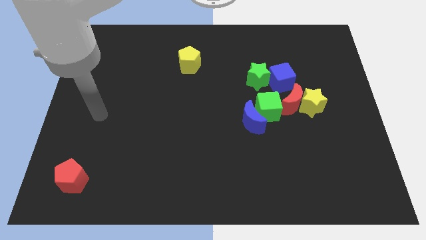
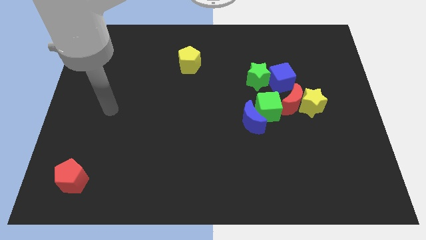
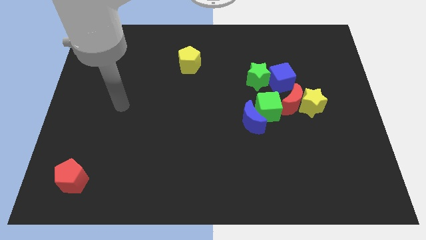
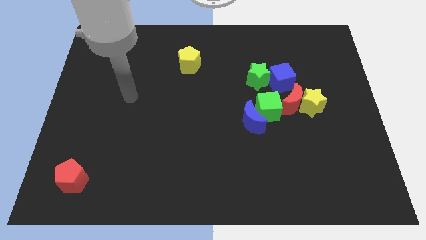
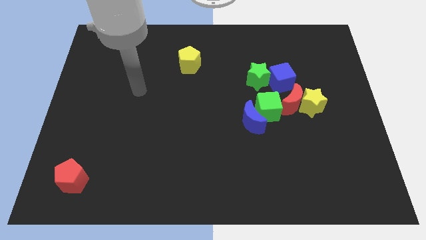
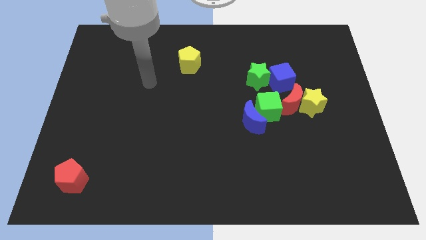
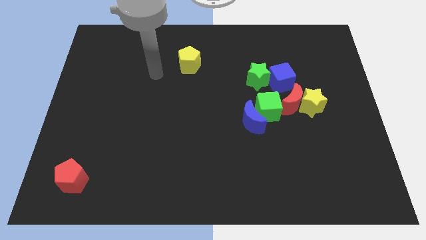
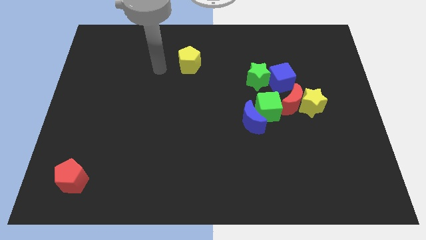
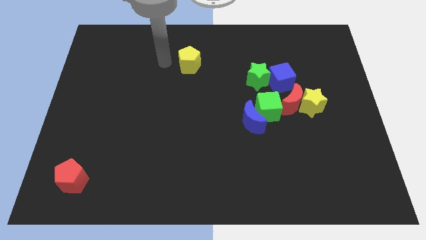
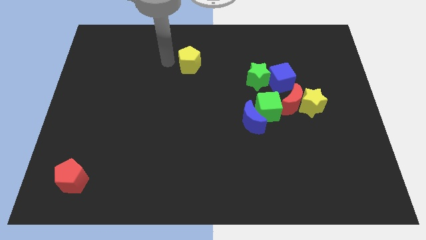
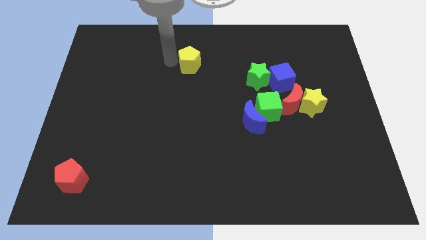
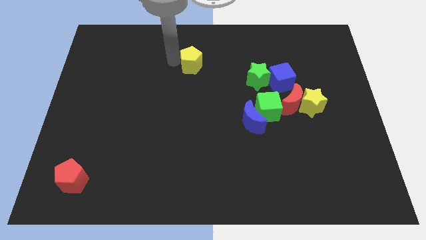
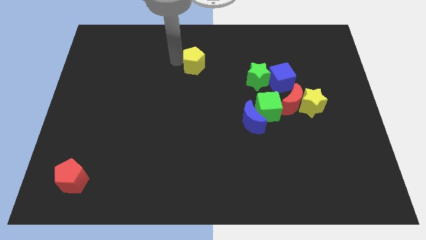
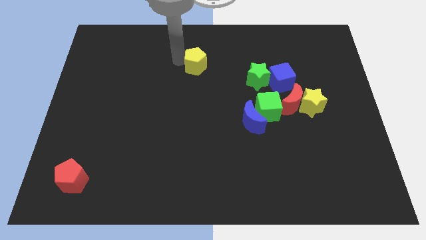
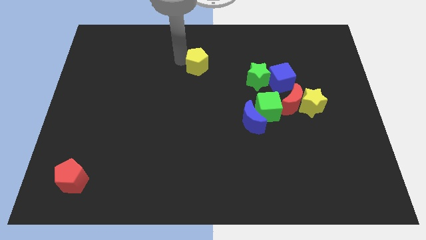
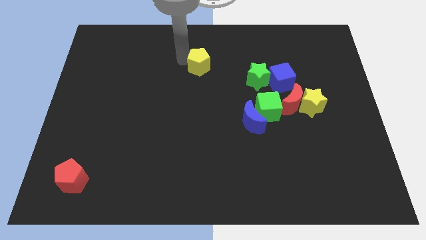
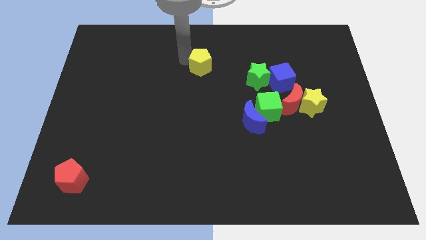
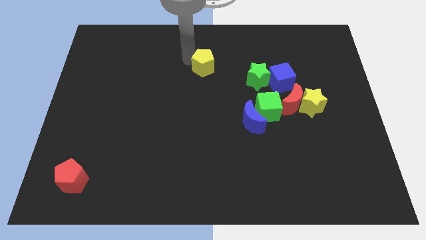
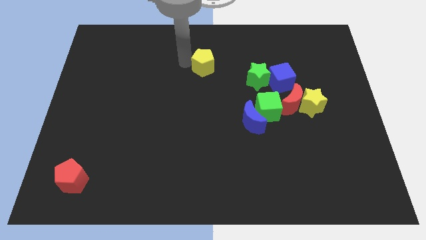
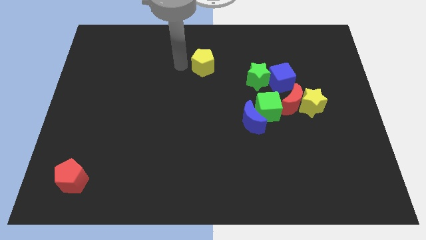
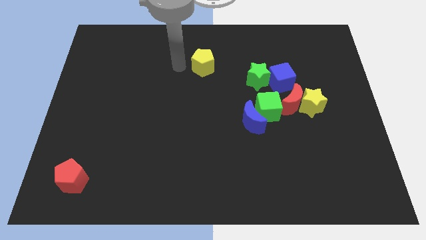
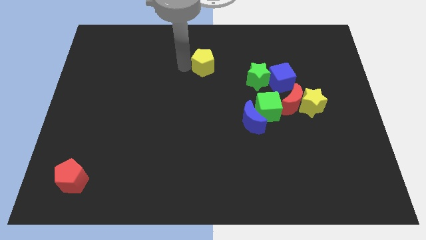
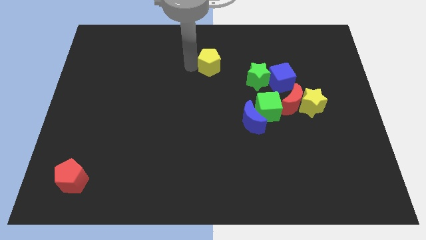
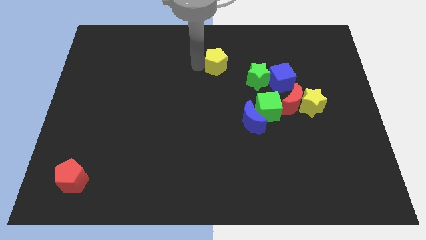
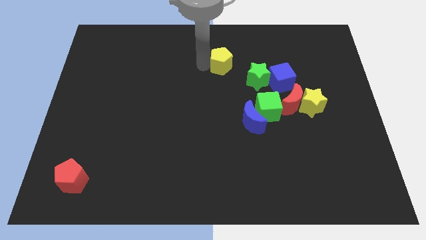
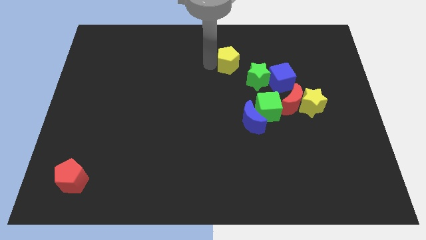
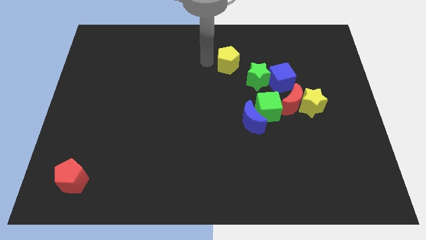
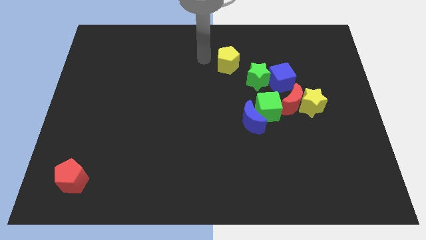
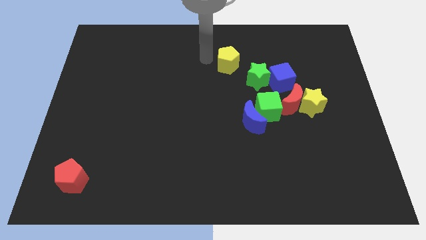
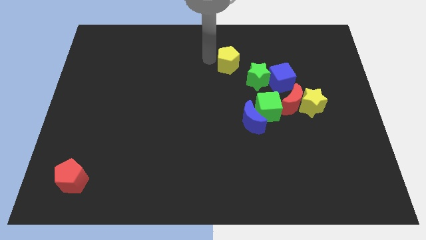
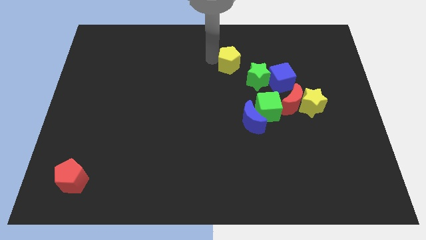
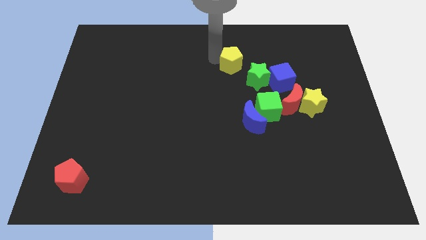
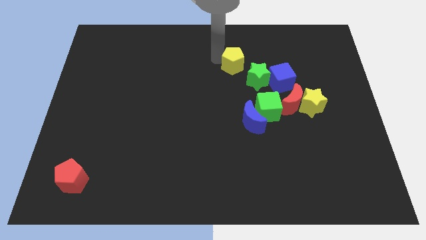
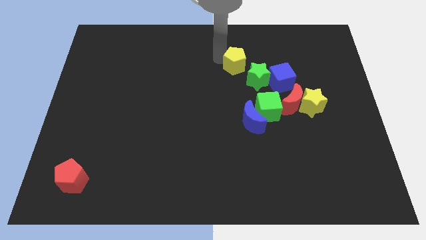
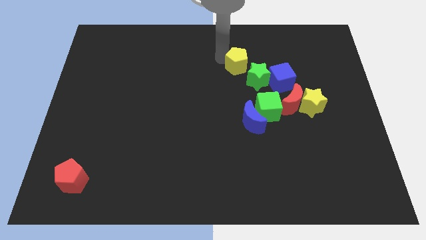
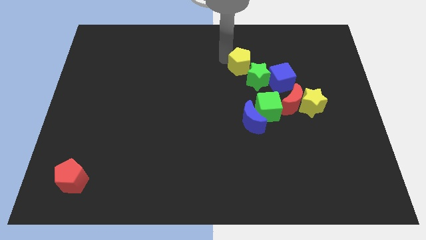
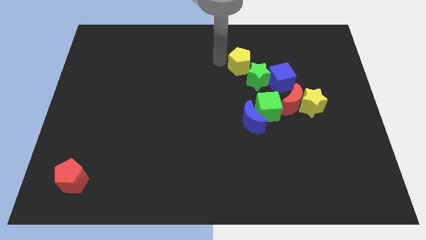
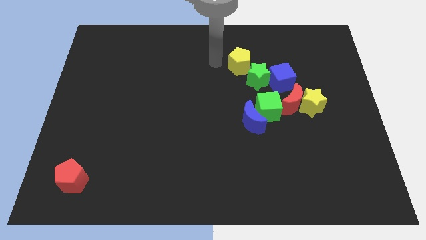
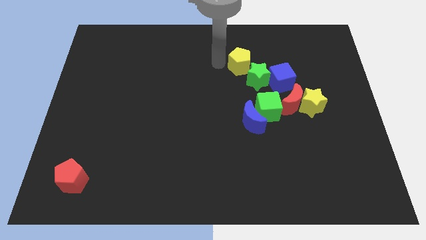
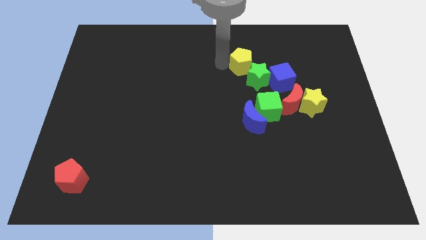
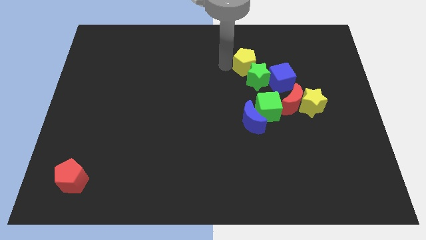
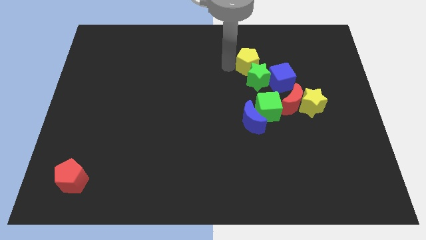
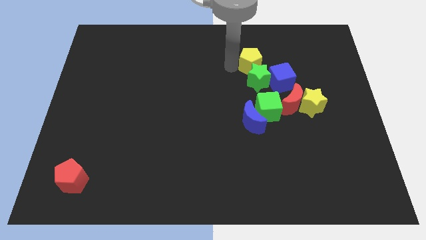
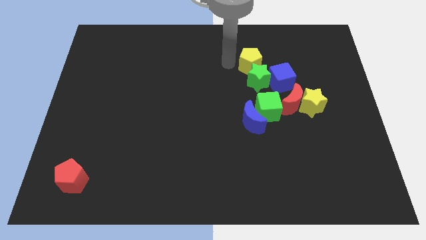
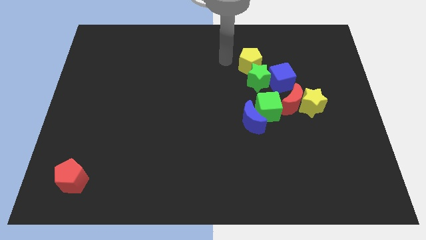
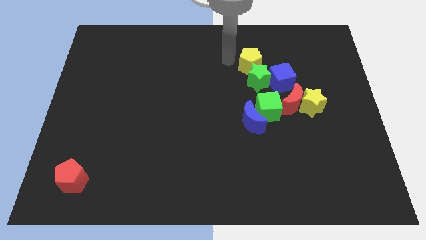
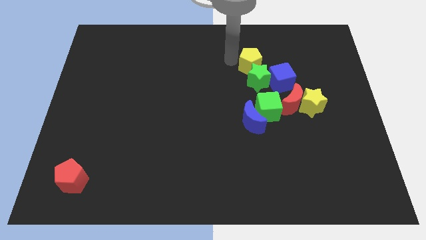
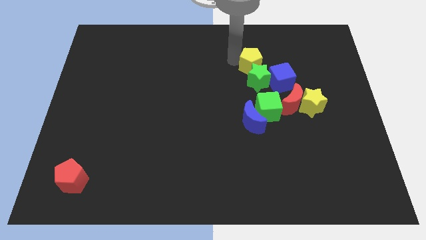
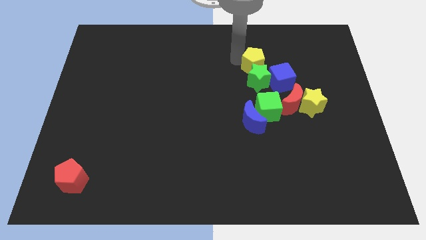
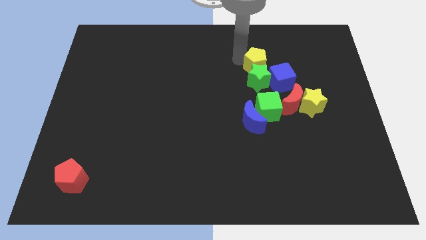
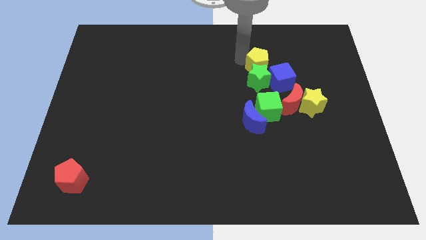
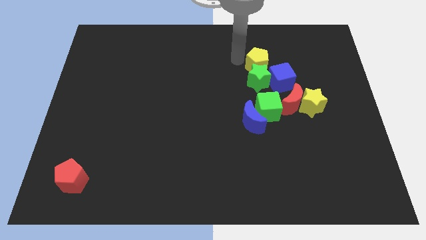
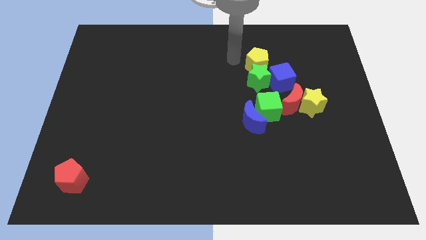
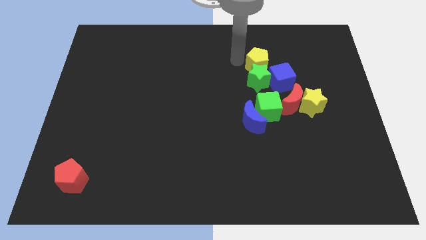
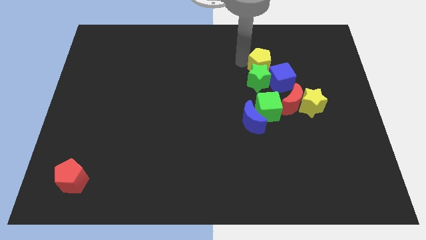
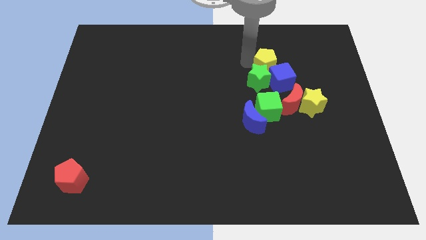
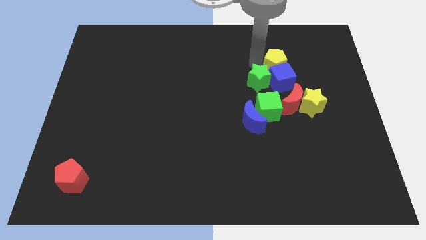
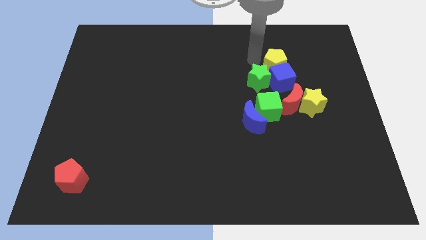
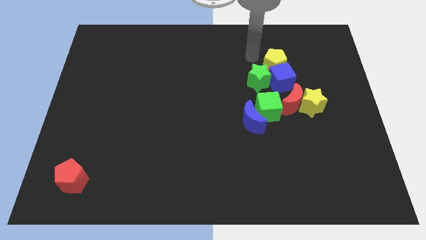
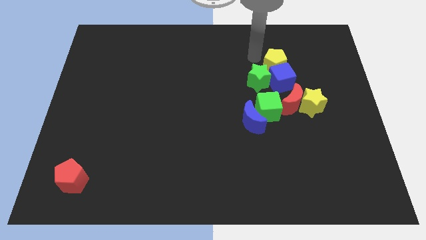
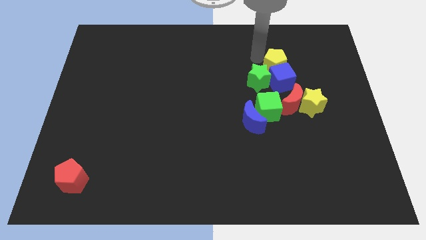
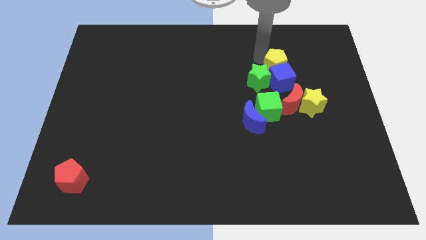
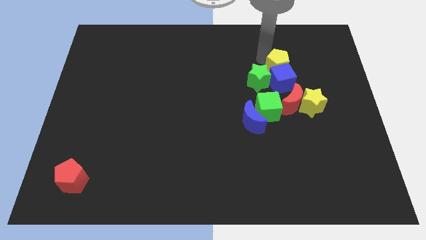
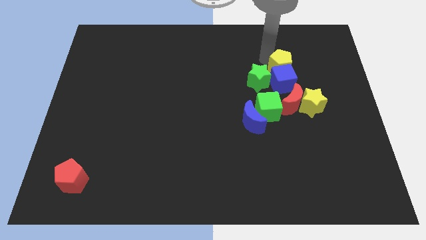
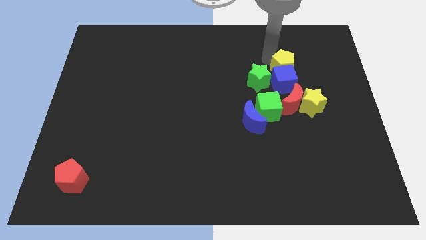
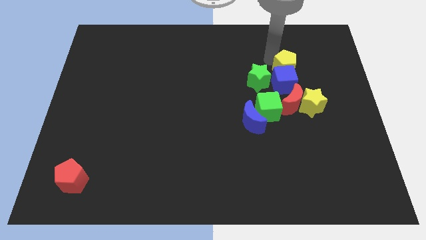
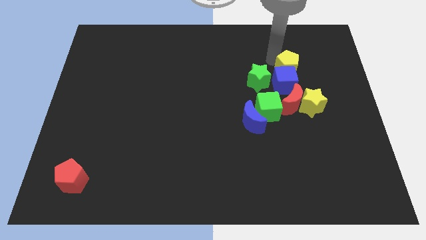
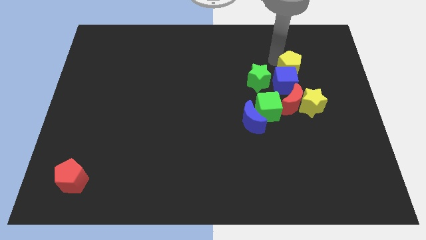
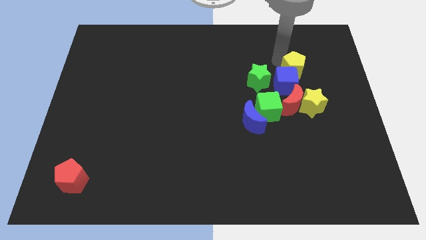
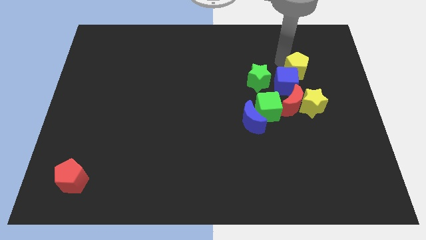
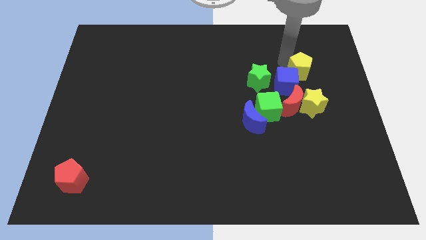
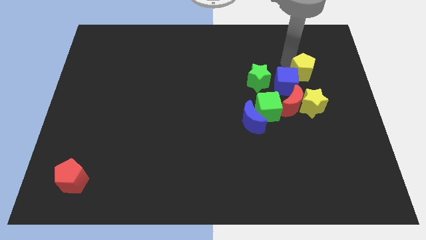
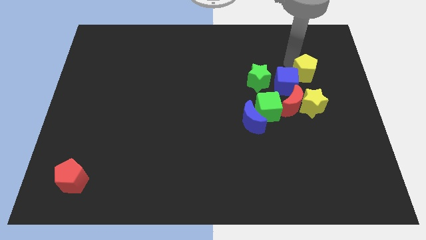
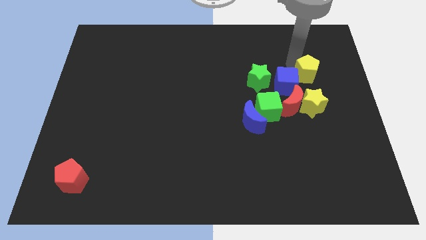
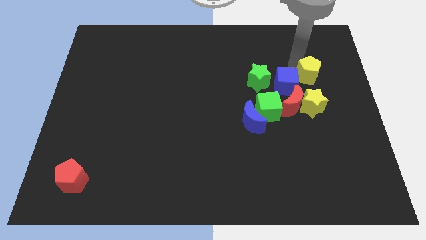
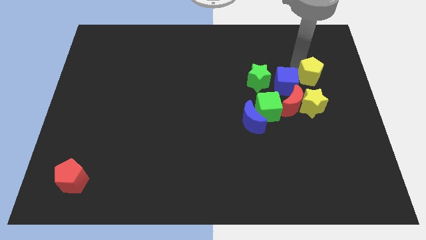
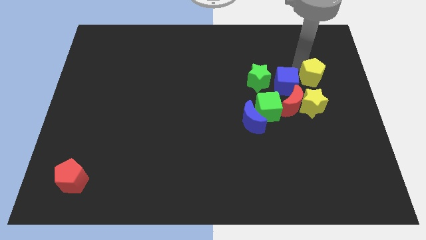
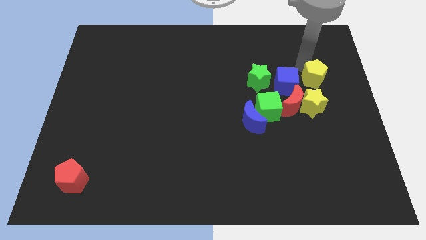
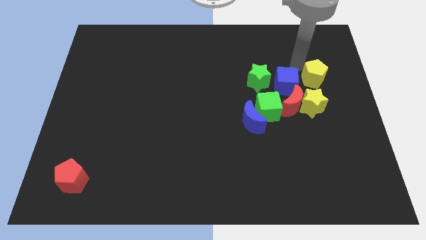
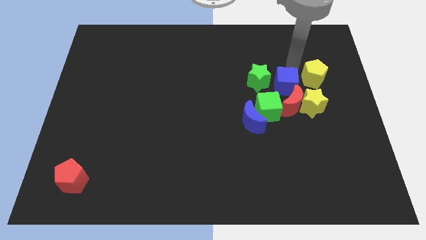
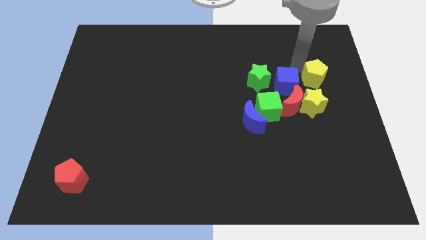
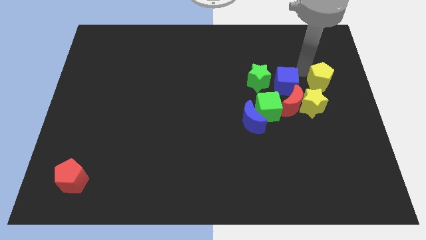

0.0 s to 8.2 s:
slide the yellow pentagon to the center right
